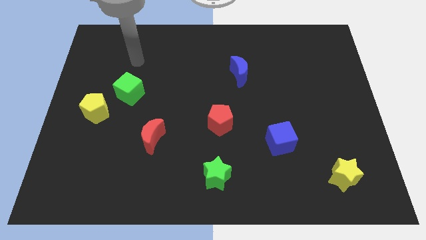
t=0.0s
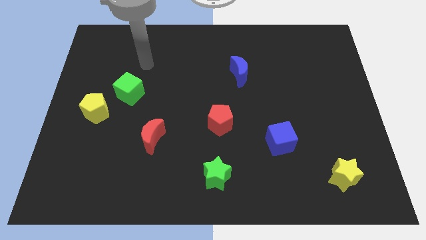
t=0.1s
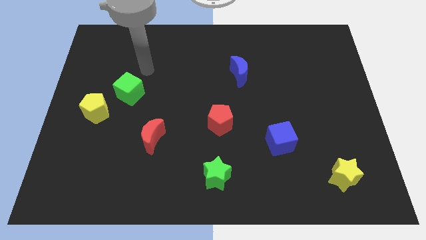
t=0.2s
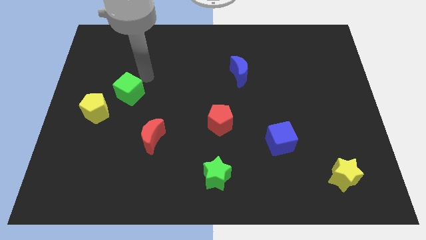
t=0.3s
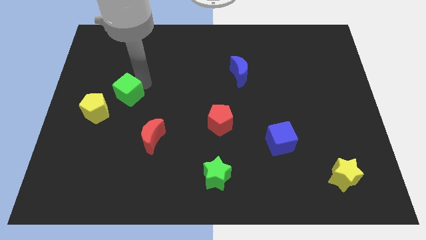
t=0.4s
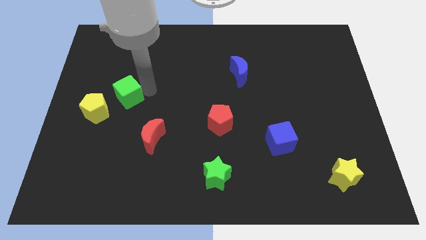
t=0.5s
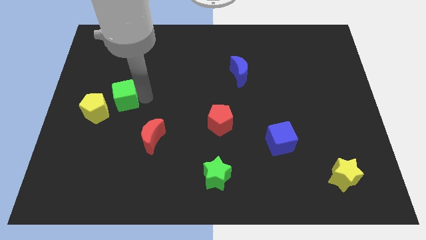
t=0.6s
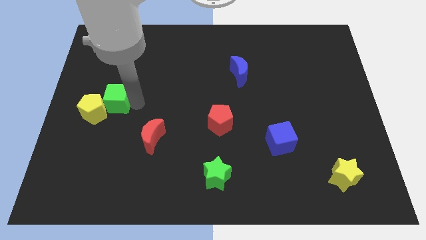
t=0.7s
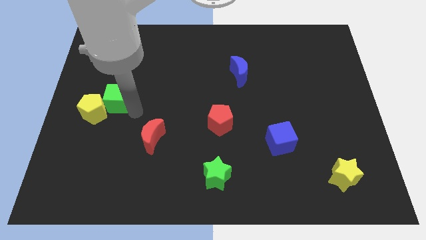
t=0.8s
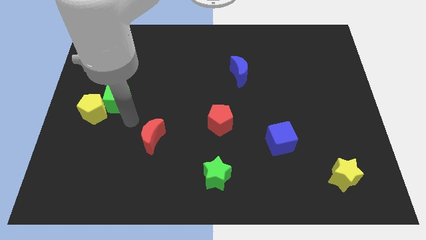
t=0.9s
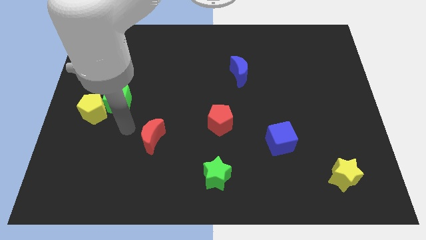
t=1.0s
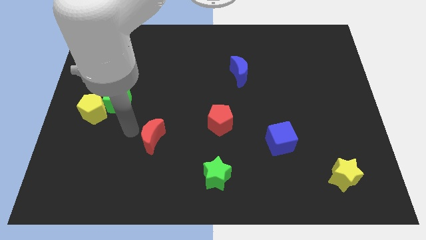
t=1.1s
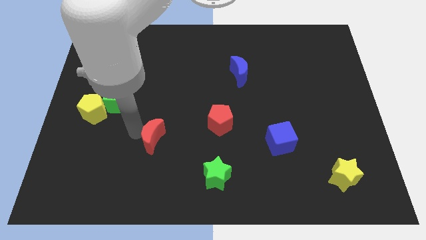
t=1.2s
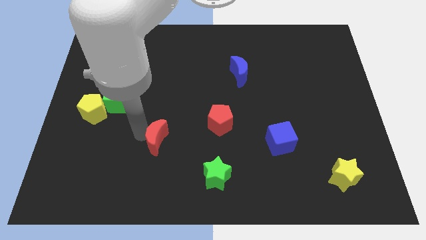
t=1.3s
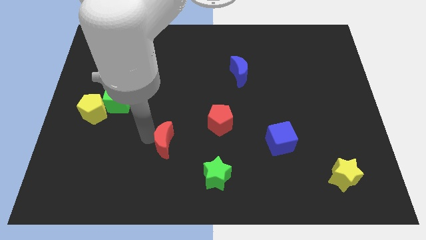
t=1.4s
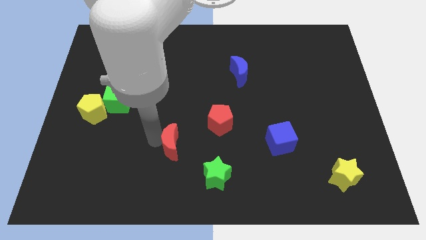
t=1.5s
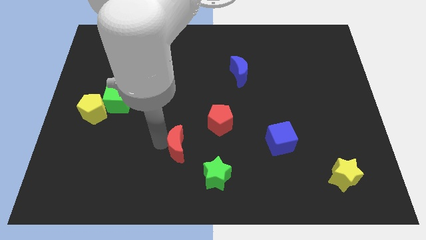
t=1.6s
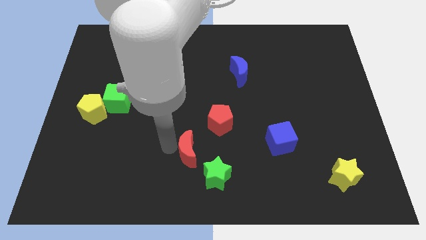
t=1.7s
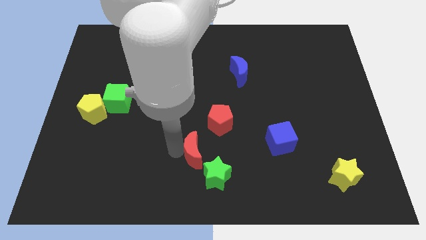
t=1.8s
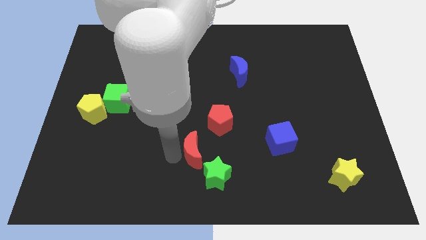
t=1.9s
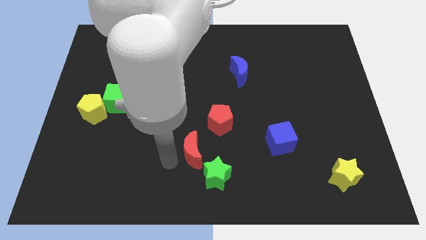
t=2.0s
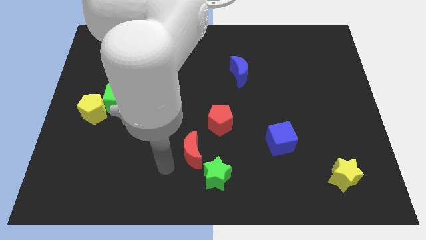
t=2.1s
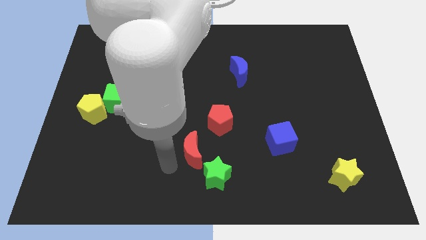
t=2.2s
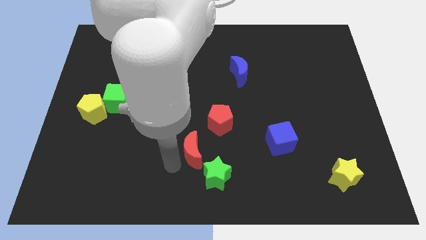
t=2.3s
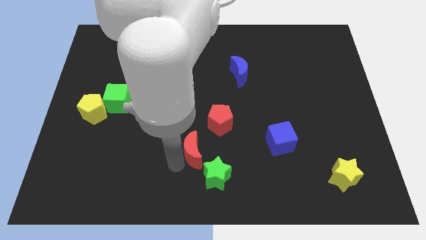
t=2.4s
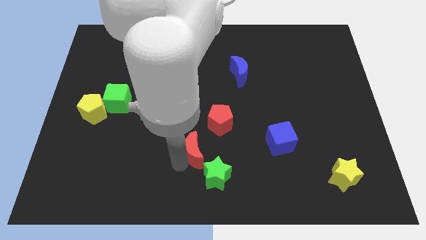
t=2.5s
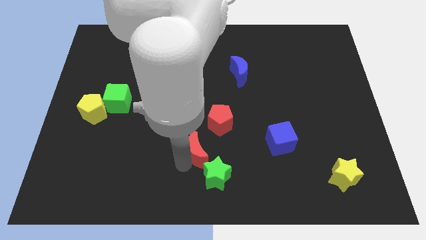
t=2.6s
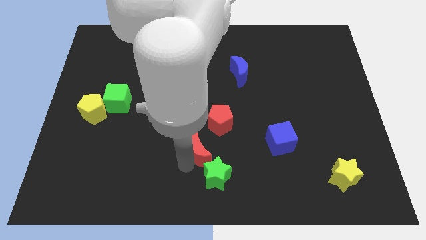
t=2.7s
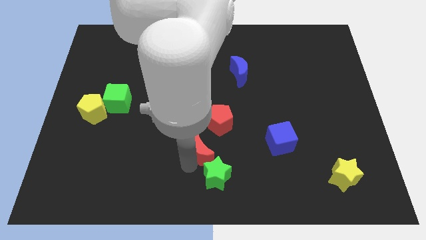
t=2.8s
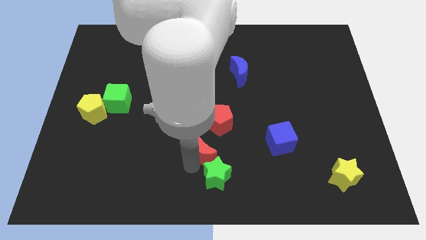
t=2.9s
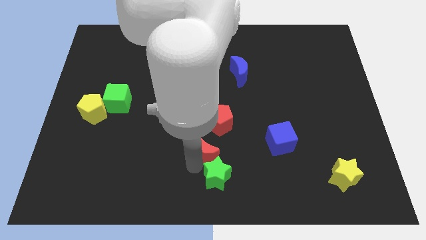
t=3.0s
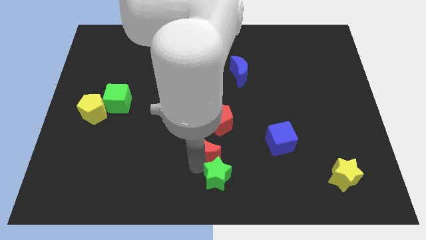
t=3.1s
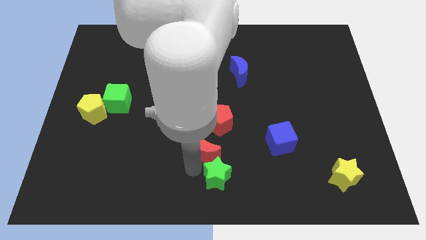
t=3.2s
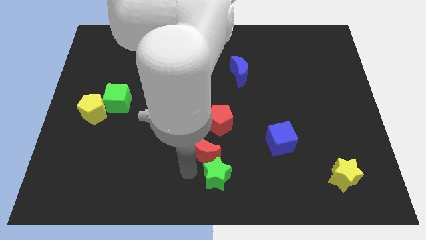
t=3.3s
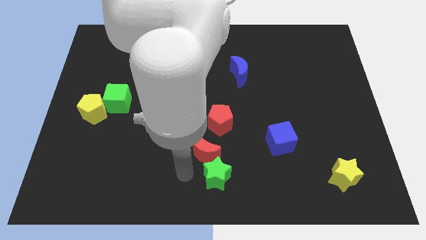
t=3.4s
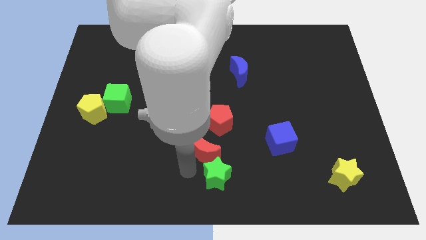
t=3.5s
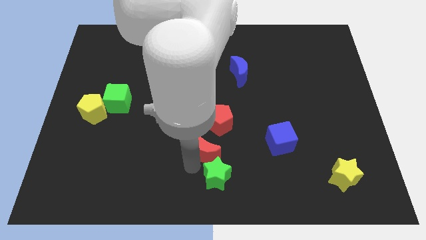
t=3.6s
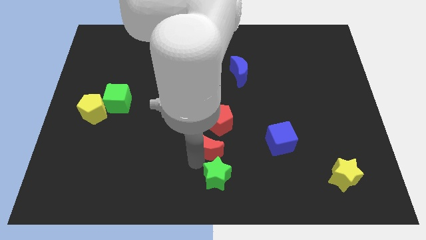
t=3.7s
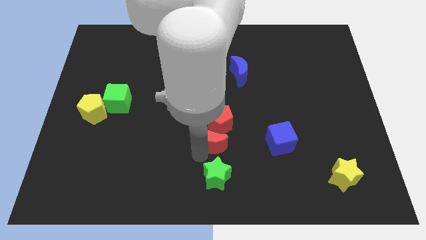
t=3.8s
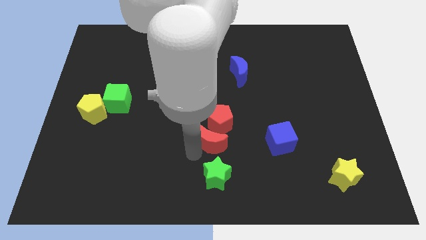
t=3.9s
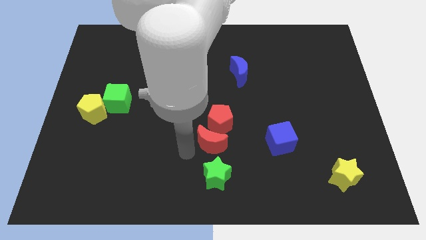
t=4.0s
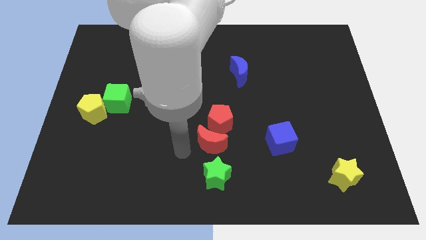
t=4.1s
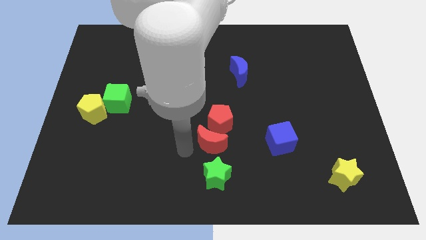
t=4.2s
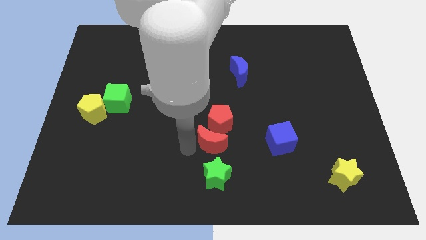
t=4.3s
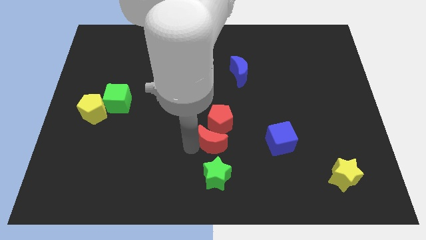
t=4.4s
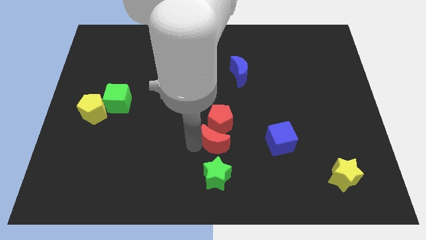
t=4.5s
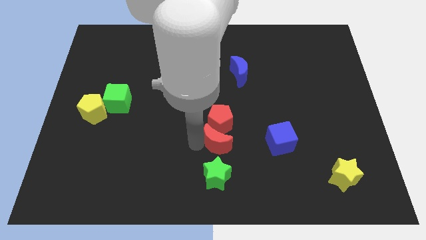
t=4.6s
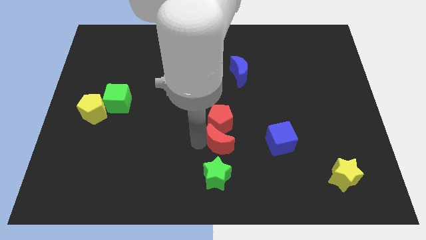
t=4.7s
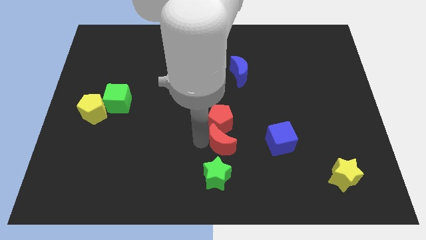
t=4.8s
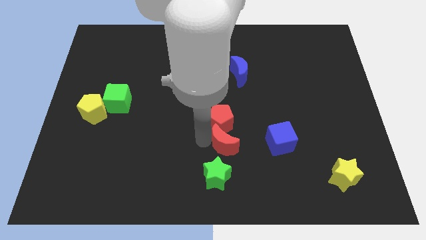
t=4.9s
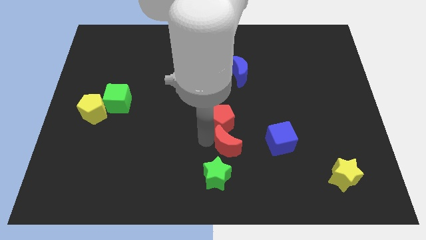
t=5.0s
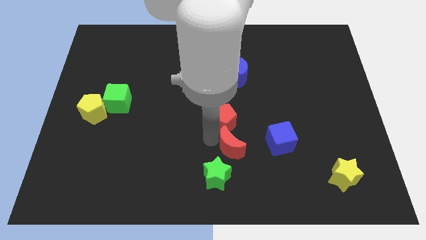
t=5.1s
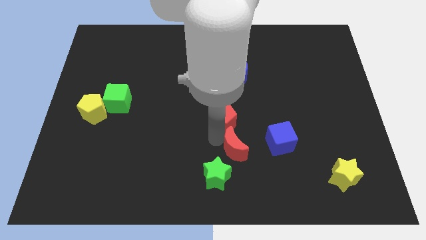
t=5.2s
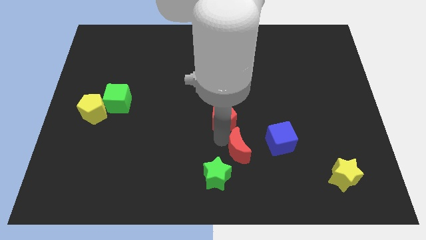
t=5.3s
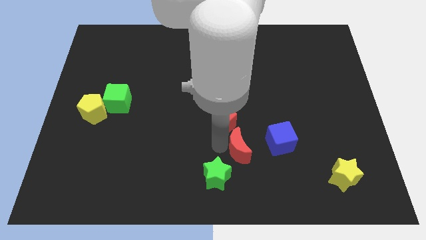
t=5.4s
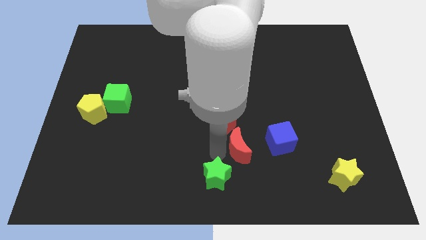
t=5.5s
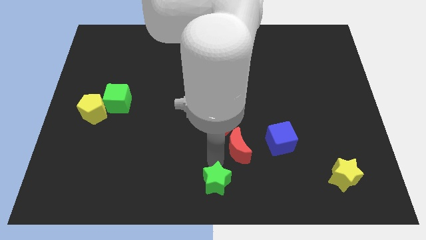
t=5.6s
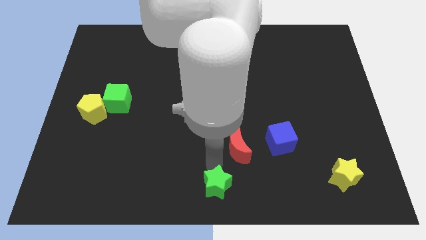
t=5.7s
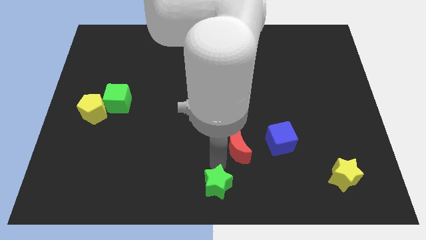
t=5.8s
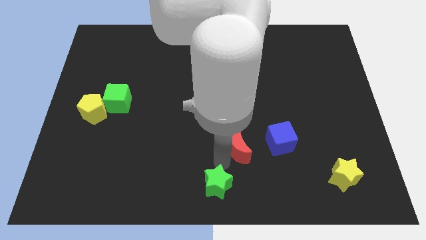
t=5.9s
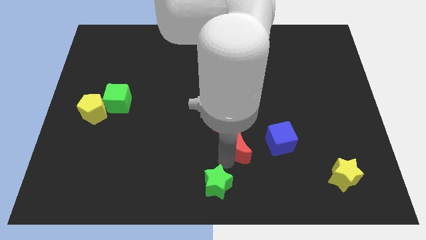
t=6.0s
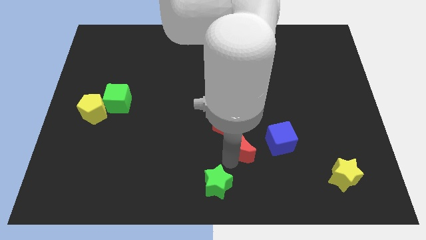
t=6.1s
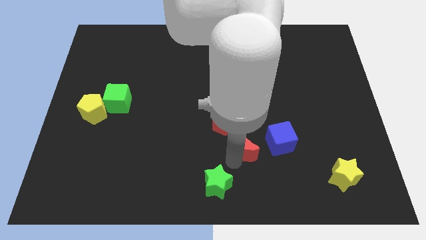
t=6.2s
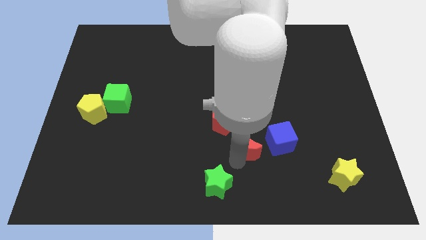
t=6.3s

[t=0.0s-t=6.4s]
push the red moon right

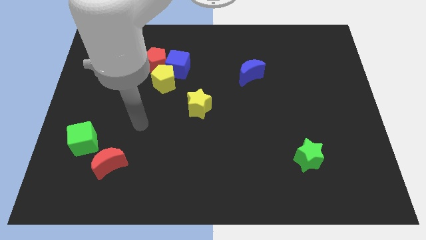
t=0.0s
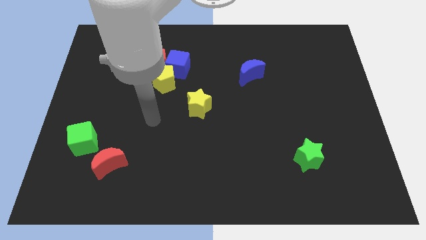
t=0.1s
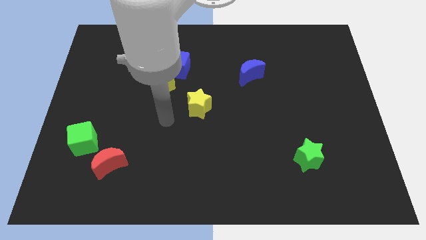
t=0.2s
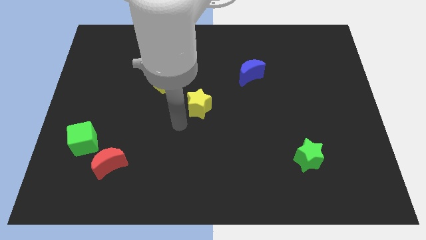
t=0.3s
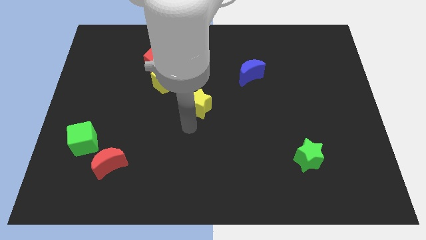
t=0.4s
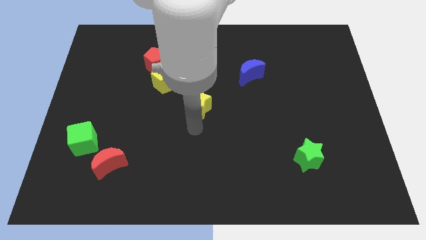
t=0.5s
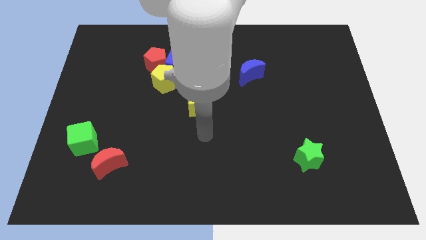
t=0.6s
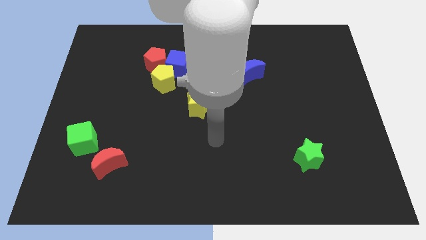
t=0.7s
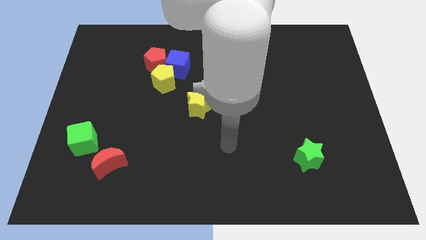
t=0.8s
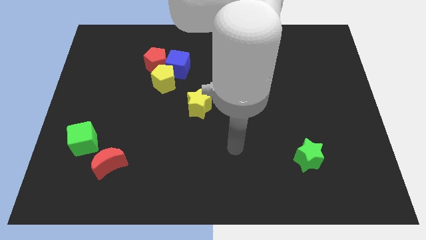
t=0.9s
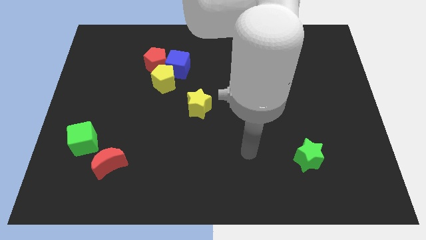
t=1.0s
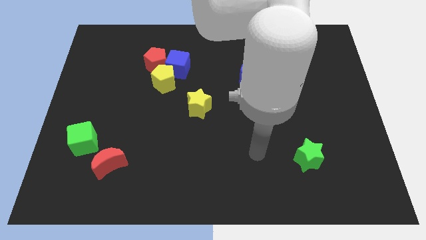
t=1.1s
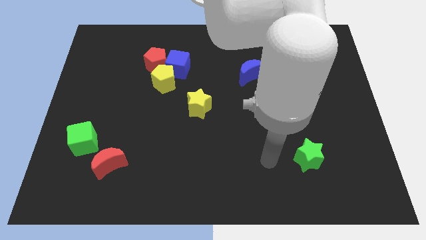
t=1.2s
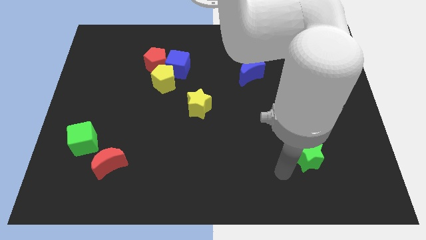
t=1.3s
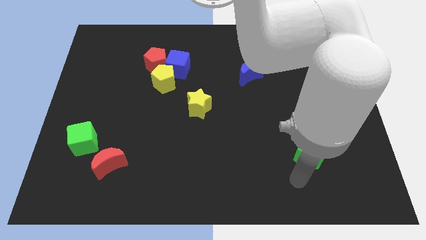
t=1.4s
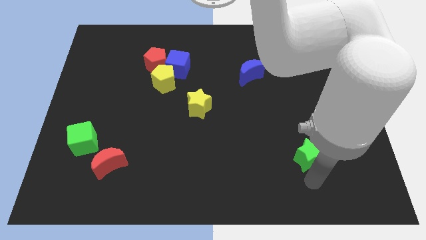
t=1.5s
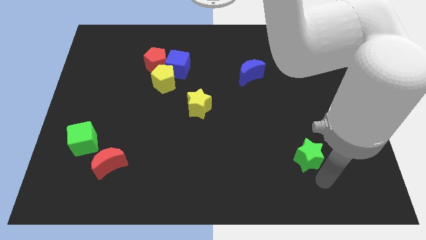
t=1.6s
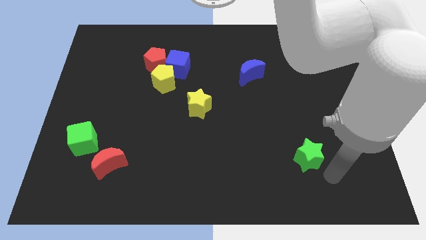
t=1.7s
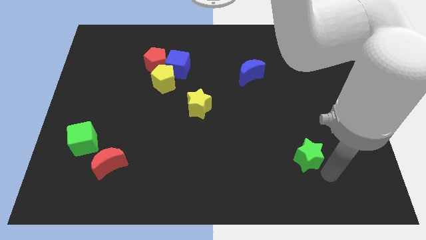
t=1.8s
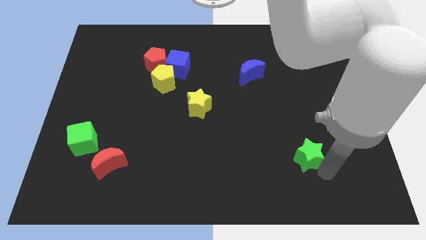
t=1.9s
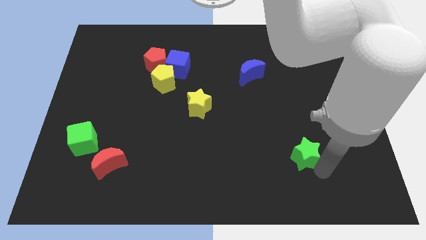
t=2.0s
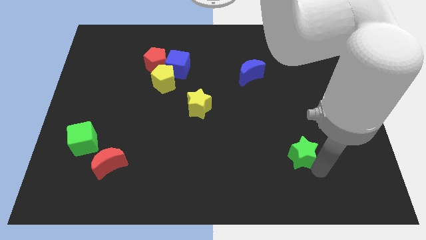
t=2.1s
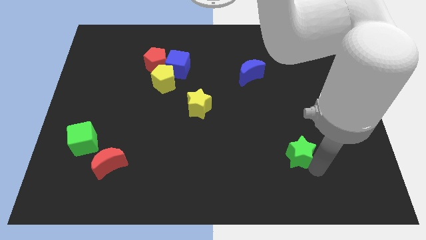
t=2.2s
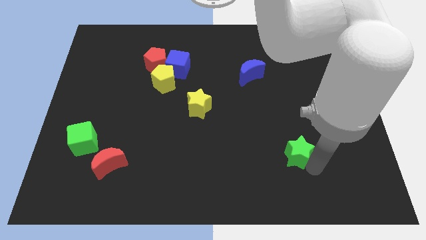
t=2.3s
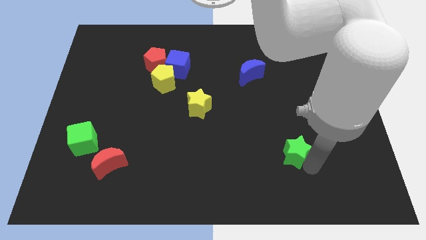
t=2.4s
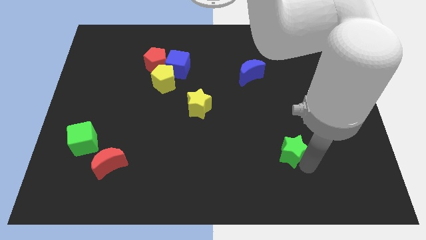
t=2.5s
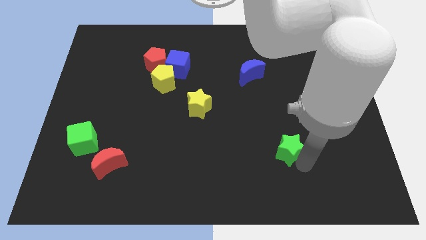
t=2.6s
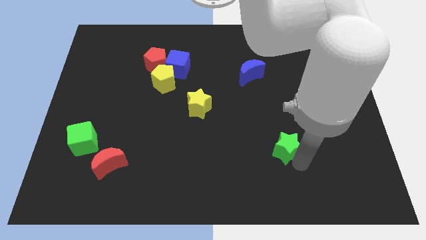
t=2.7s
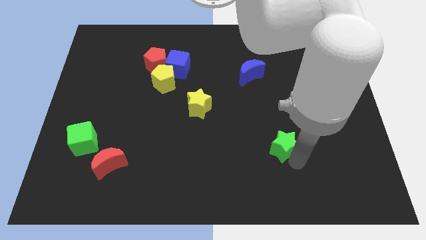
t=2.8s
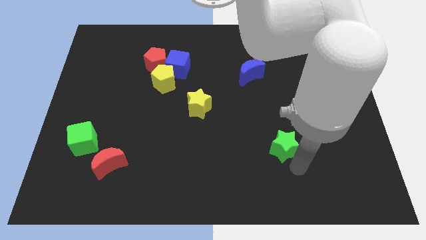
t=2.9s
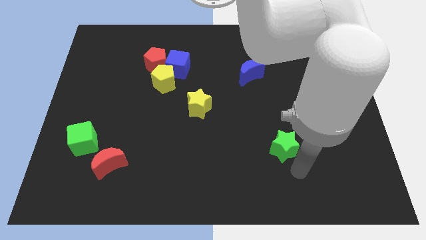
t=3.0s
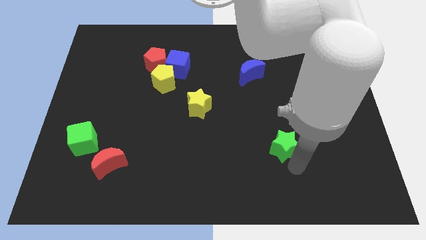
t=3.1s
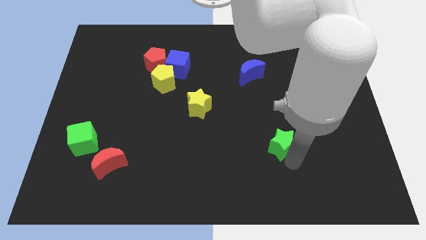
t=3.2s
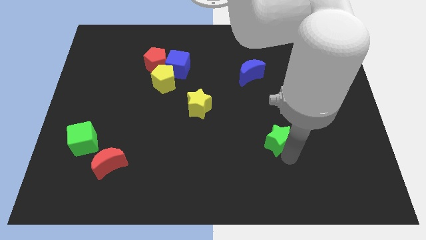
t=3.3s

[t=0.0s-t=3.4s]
push the green star slightly up and to the left diagonally
